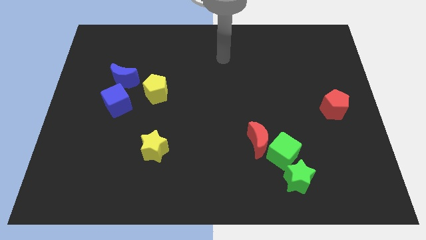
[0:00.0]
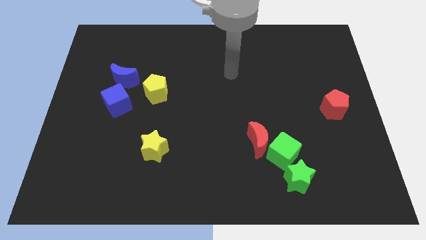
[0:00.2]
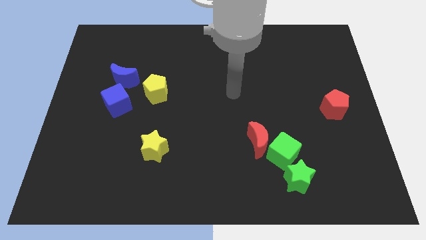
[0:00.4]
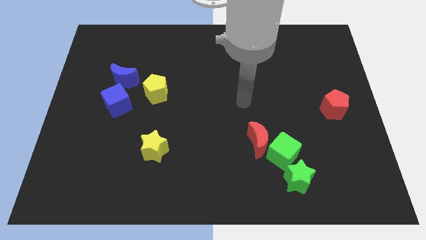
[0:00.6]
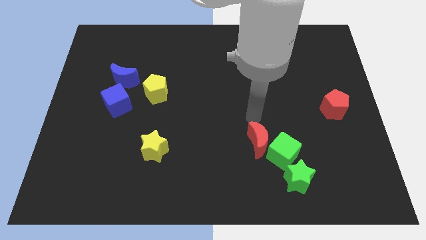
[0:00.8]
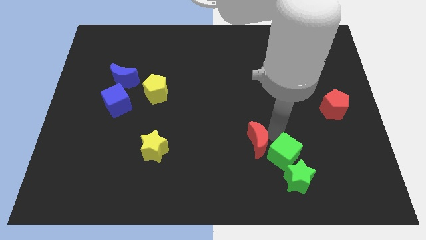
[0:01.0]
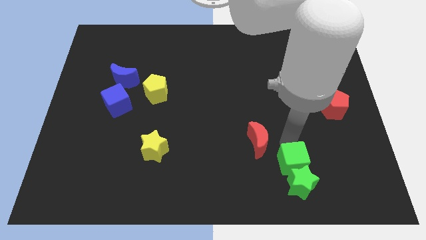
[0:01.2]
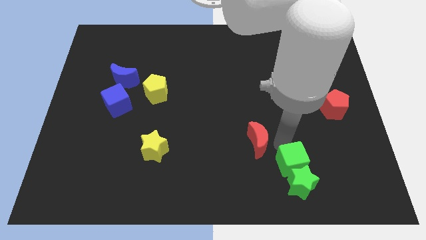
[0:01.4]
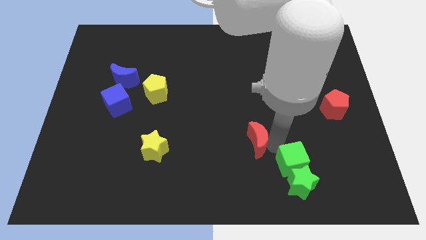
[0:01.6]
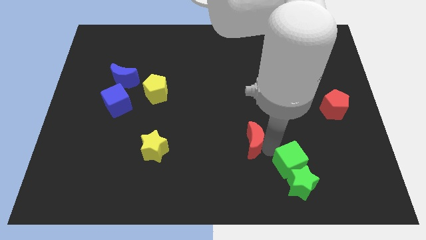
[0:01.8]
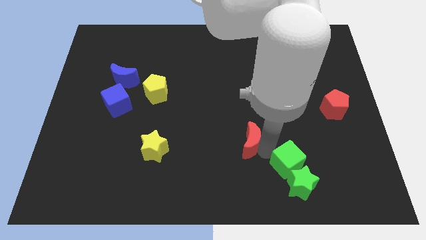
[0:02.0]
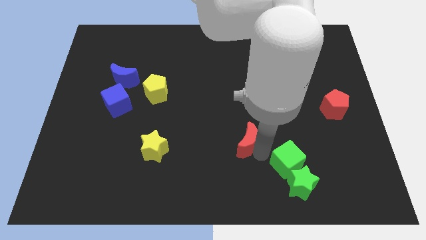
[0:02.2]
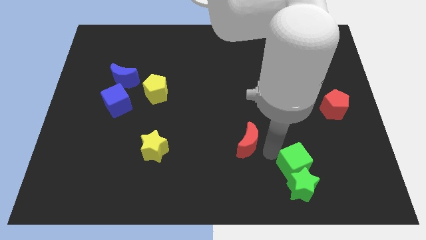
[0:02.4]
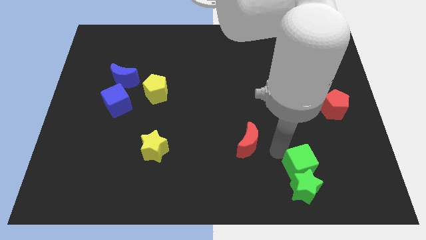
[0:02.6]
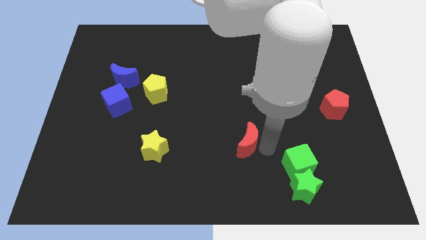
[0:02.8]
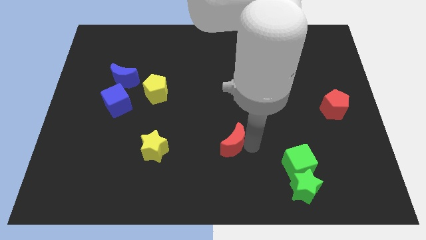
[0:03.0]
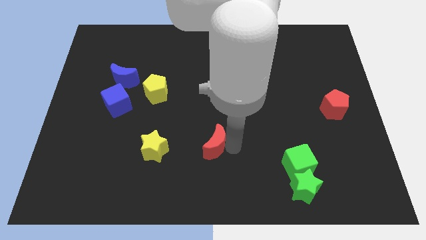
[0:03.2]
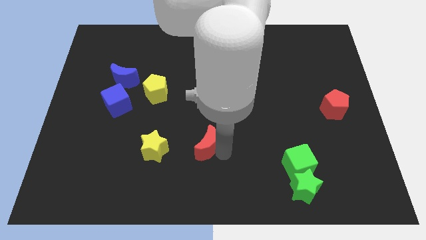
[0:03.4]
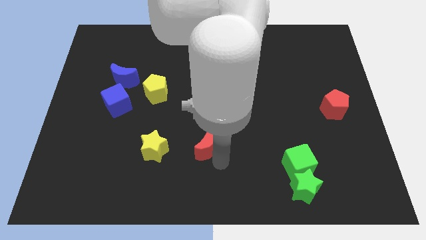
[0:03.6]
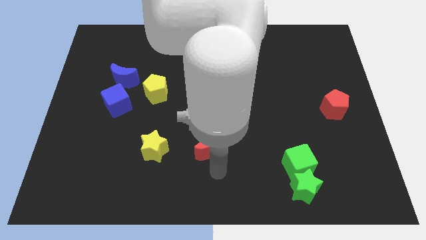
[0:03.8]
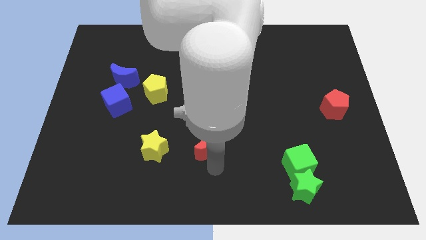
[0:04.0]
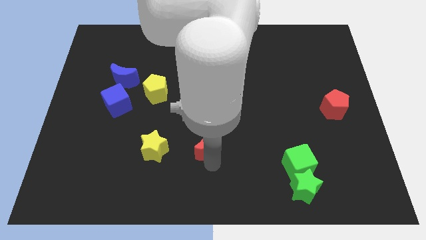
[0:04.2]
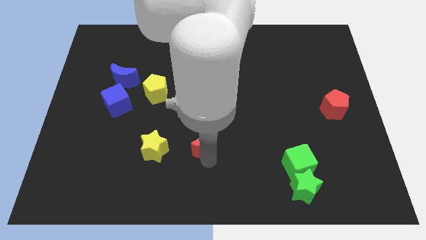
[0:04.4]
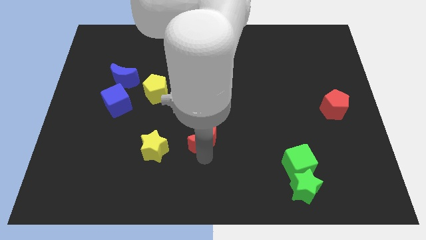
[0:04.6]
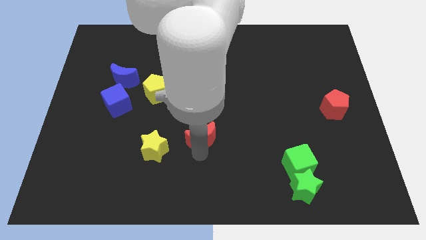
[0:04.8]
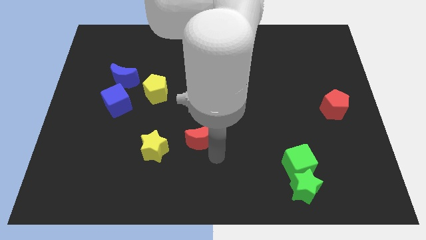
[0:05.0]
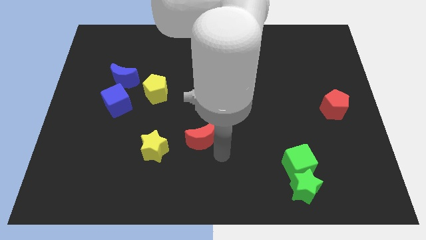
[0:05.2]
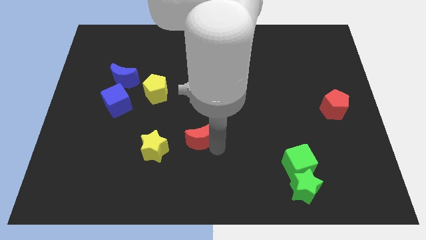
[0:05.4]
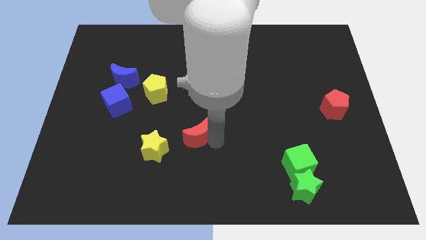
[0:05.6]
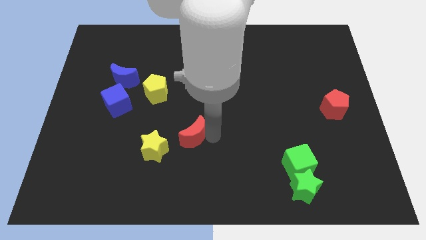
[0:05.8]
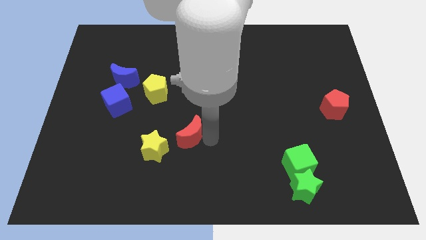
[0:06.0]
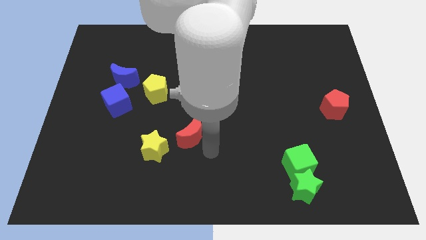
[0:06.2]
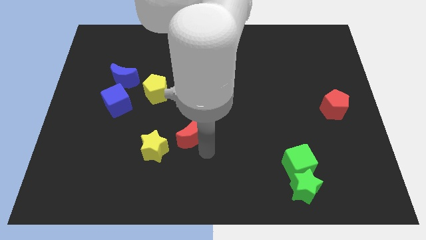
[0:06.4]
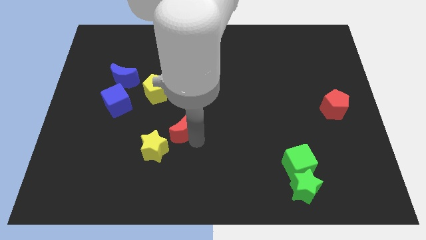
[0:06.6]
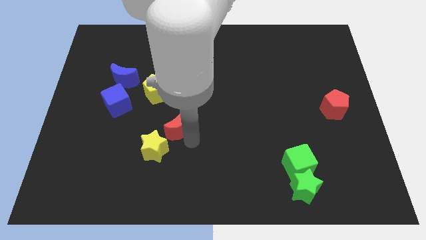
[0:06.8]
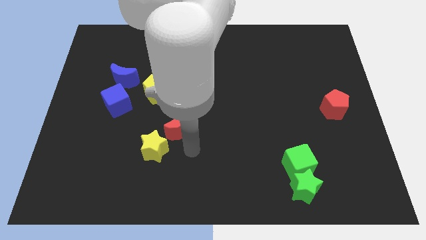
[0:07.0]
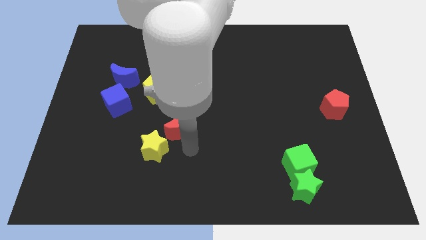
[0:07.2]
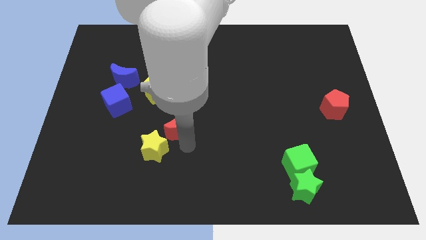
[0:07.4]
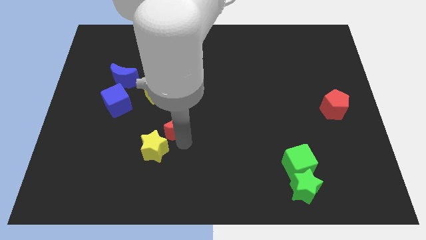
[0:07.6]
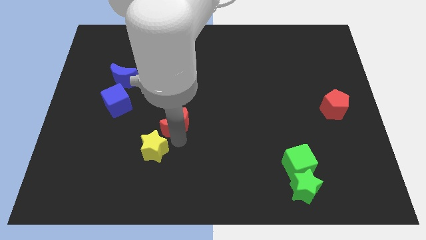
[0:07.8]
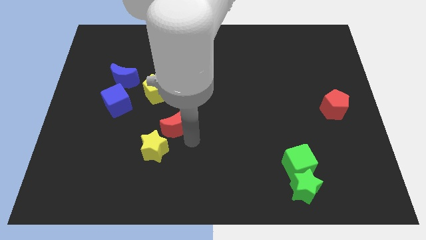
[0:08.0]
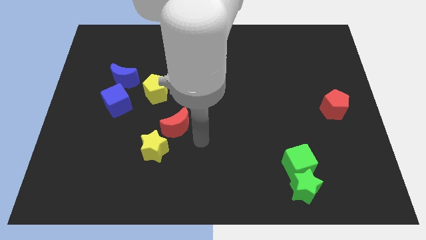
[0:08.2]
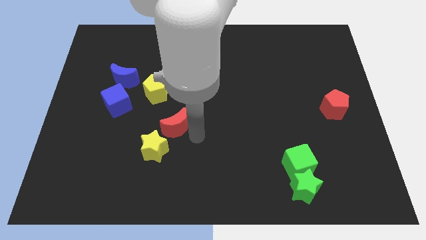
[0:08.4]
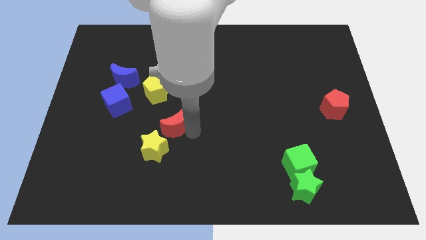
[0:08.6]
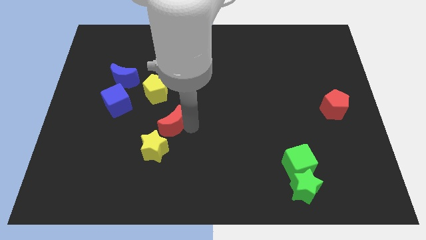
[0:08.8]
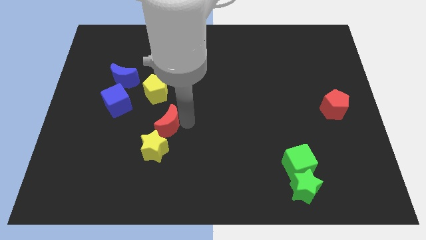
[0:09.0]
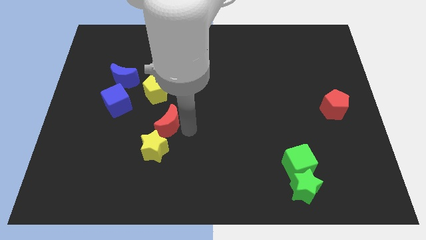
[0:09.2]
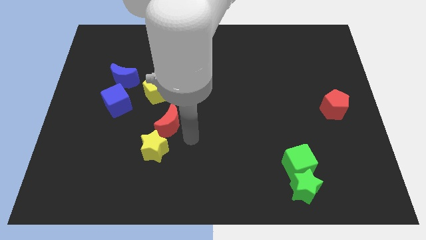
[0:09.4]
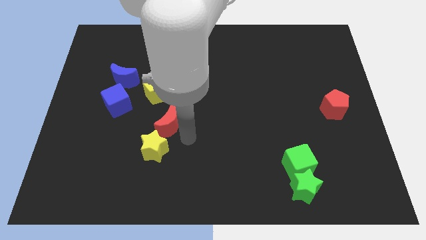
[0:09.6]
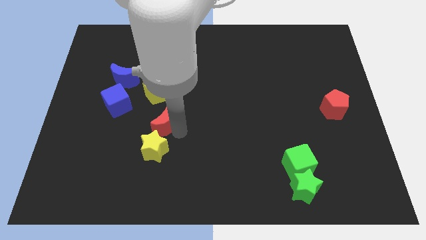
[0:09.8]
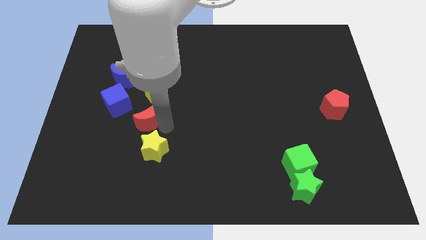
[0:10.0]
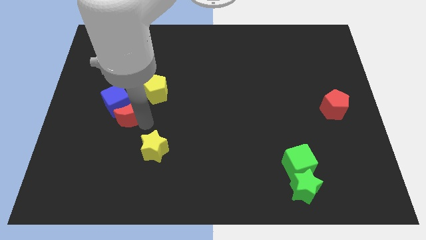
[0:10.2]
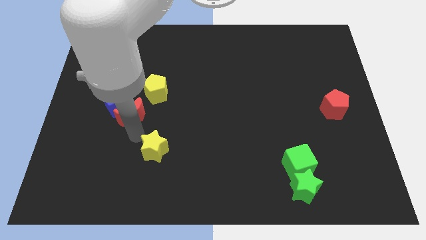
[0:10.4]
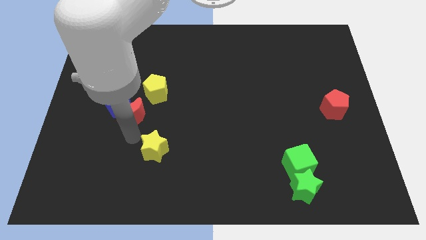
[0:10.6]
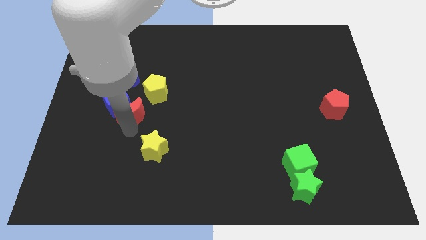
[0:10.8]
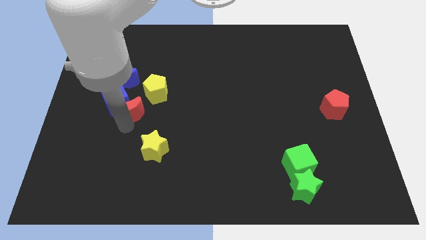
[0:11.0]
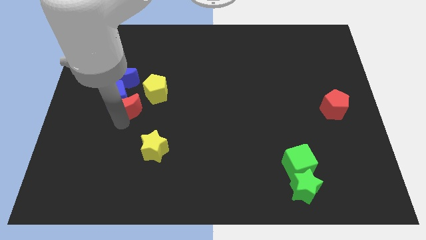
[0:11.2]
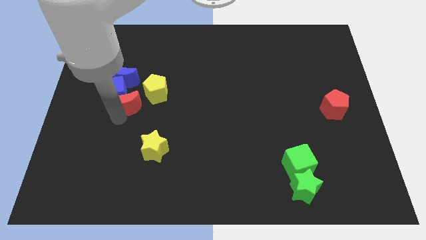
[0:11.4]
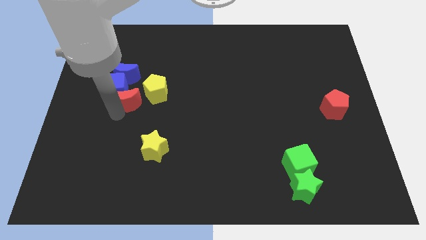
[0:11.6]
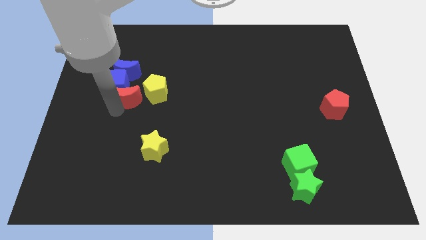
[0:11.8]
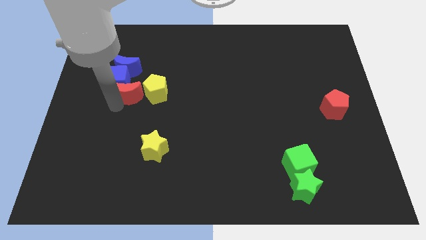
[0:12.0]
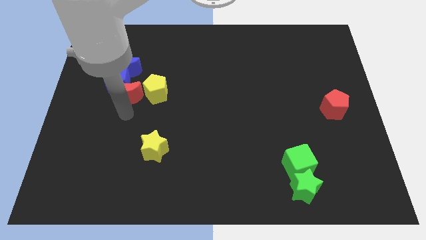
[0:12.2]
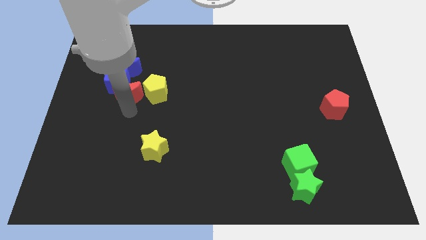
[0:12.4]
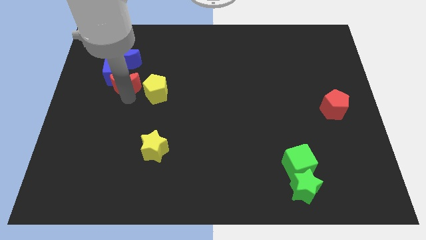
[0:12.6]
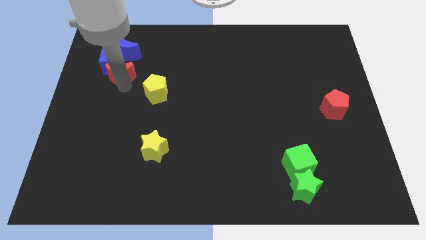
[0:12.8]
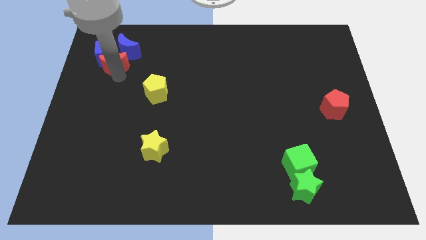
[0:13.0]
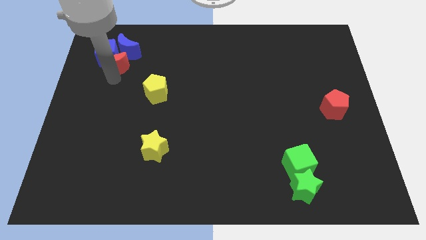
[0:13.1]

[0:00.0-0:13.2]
put the red moon towards the blue moon

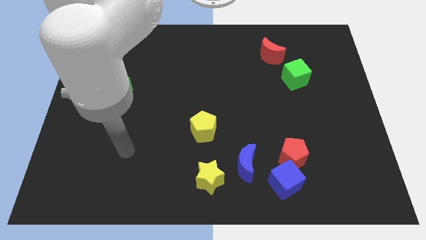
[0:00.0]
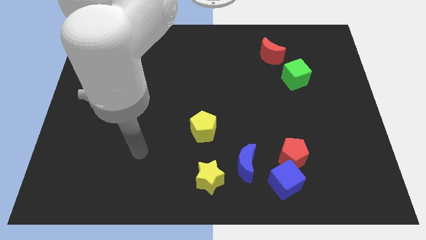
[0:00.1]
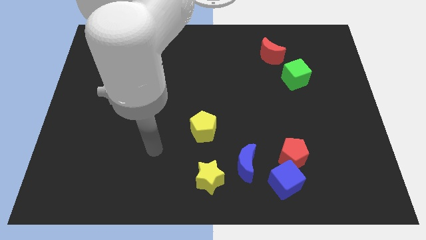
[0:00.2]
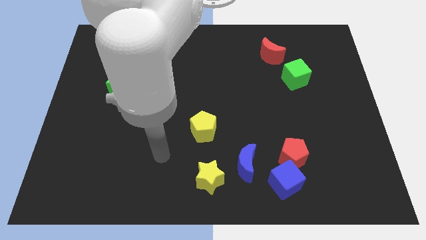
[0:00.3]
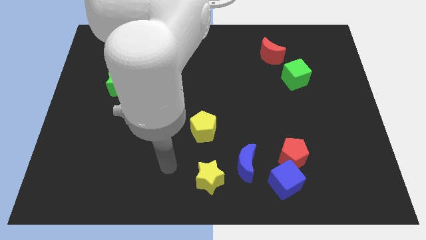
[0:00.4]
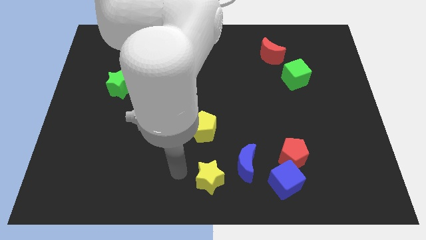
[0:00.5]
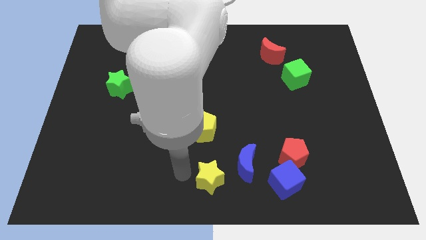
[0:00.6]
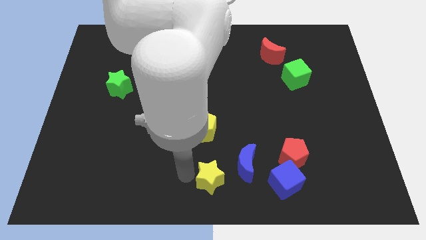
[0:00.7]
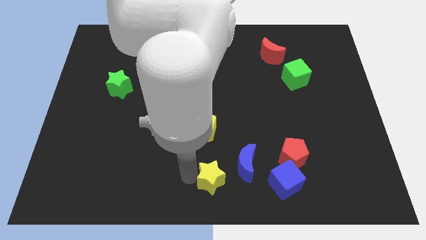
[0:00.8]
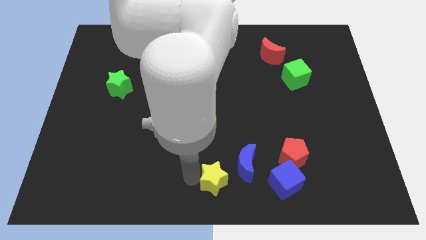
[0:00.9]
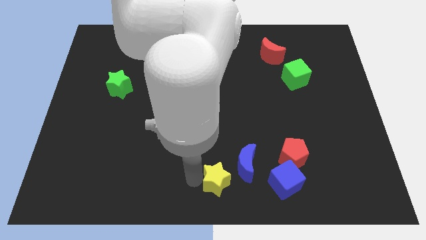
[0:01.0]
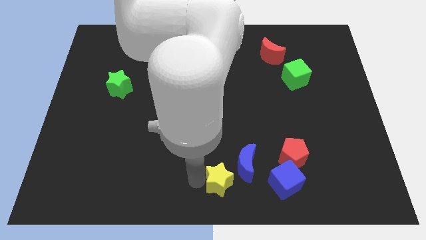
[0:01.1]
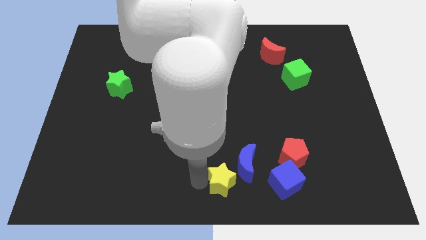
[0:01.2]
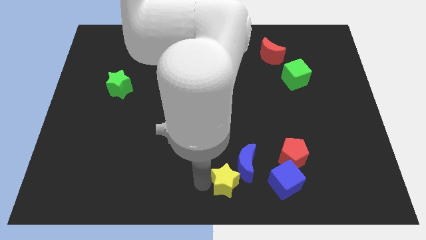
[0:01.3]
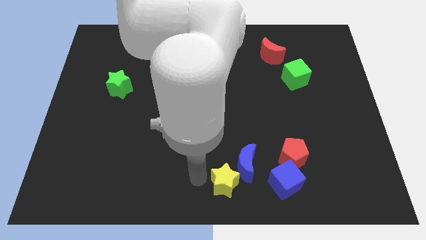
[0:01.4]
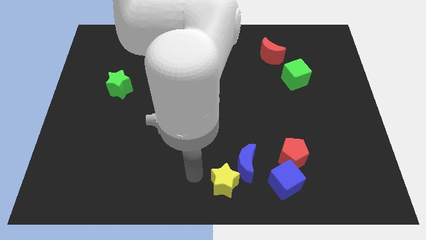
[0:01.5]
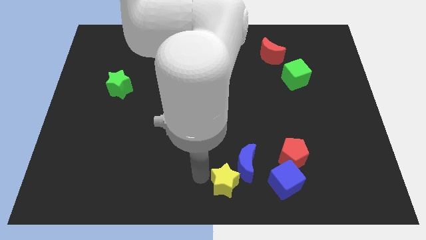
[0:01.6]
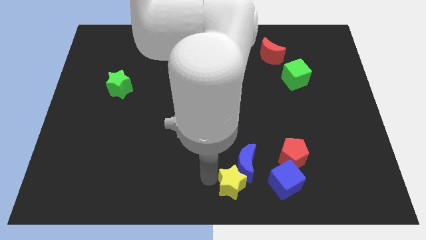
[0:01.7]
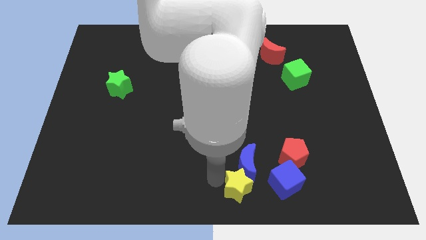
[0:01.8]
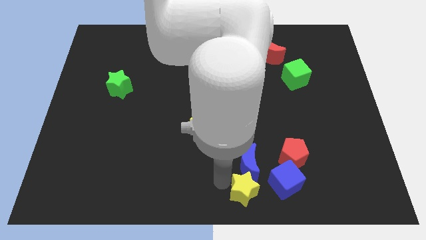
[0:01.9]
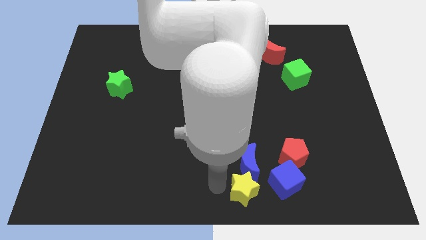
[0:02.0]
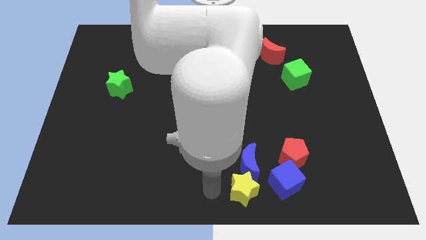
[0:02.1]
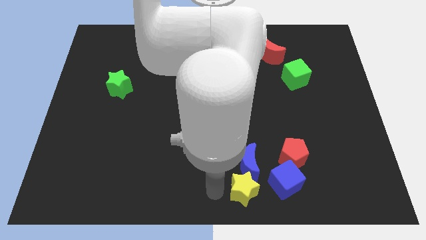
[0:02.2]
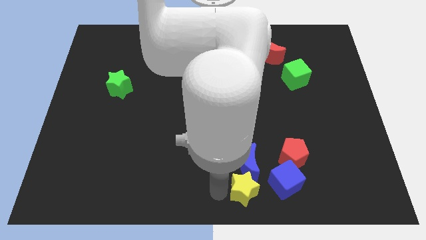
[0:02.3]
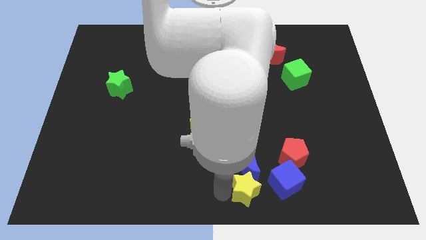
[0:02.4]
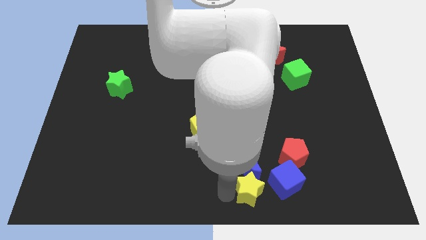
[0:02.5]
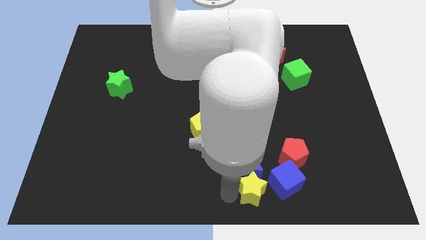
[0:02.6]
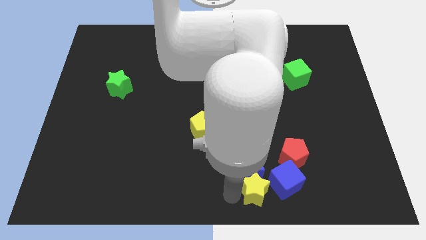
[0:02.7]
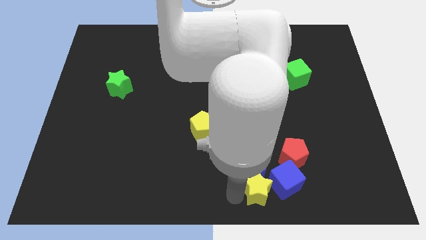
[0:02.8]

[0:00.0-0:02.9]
push the yellow star next to the blue cube
